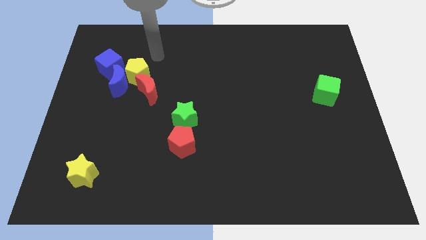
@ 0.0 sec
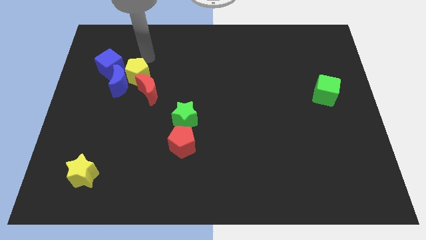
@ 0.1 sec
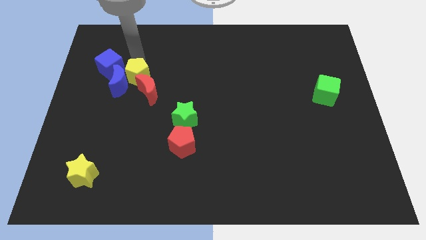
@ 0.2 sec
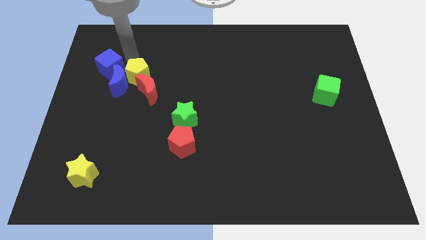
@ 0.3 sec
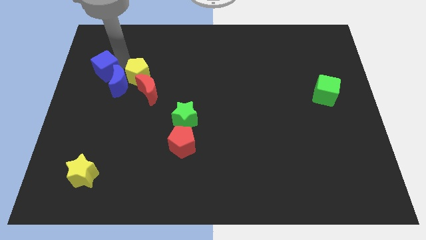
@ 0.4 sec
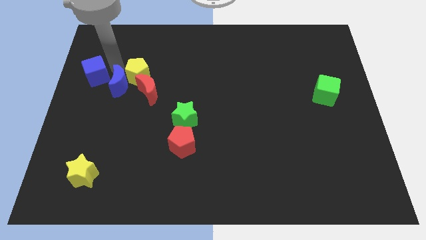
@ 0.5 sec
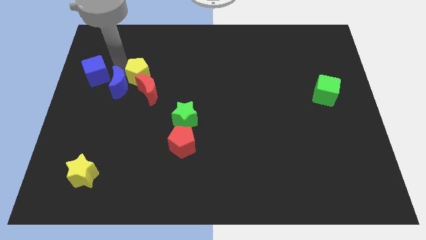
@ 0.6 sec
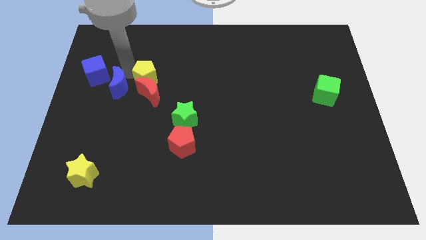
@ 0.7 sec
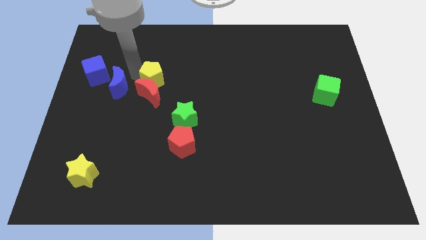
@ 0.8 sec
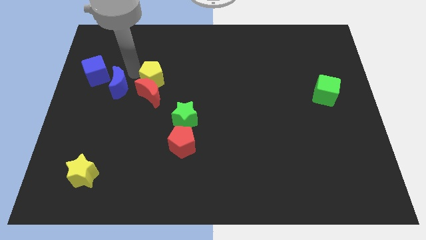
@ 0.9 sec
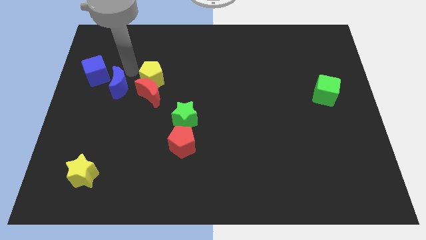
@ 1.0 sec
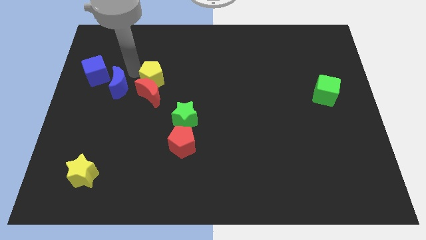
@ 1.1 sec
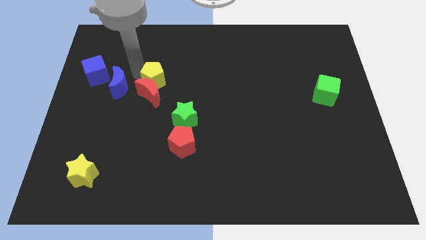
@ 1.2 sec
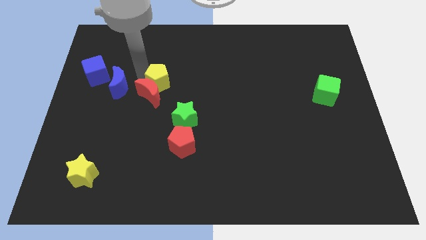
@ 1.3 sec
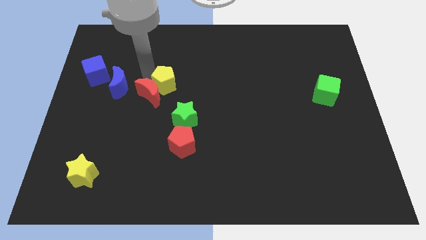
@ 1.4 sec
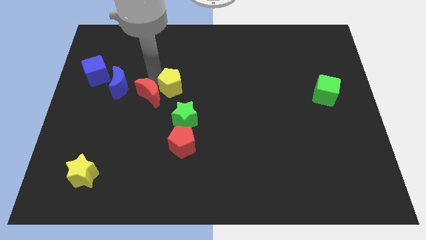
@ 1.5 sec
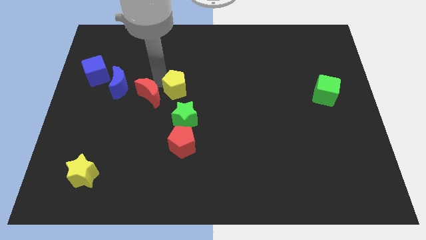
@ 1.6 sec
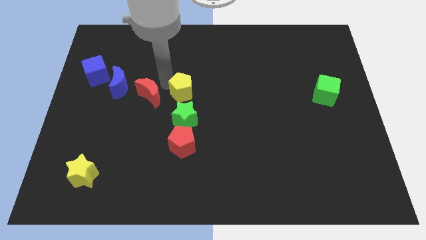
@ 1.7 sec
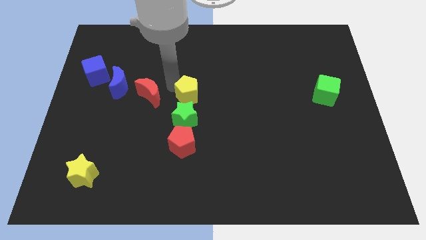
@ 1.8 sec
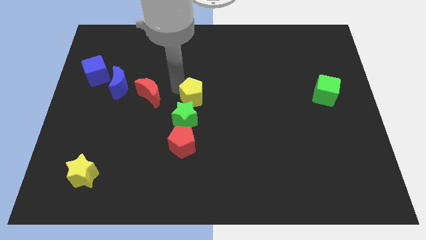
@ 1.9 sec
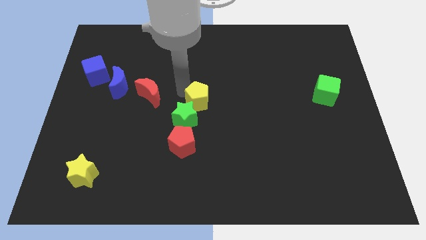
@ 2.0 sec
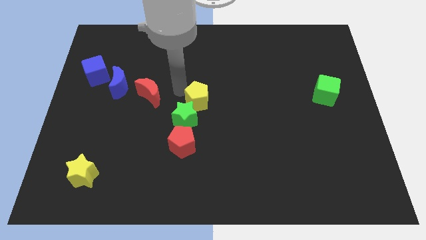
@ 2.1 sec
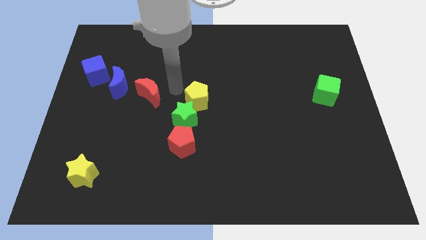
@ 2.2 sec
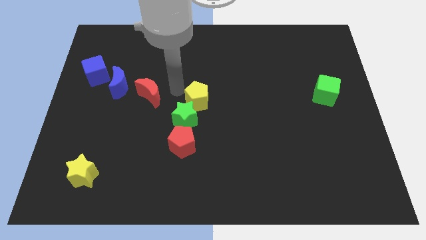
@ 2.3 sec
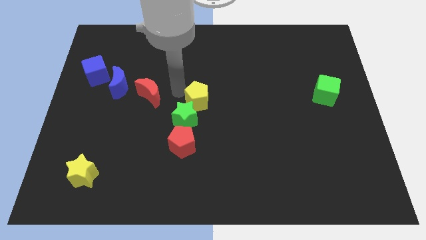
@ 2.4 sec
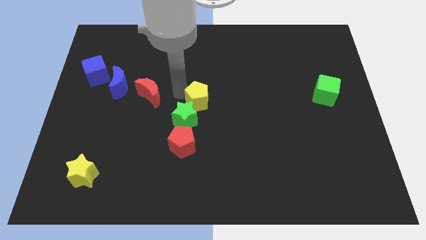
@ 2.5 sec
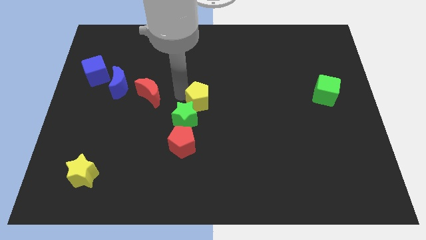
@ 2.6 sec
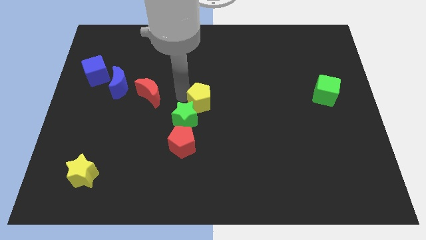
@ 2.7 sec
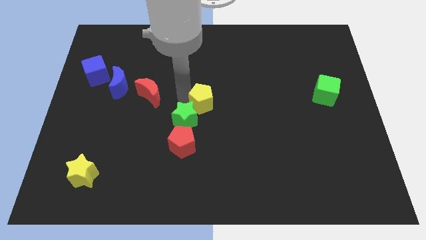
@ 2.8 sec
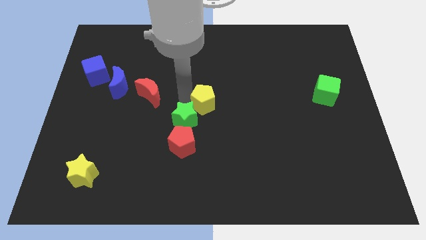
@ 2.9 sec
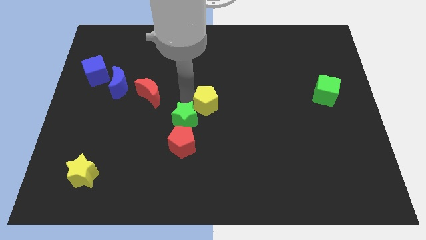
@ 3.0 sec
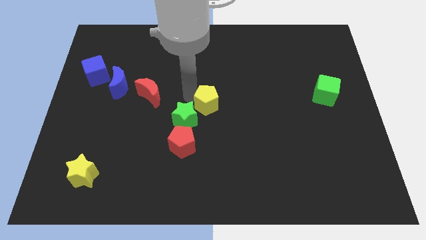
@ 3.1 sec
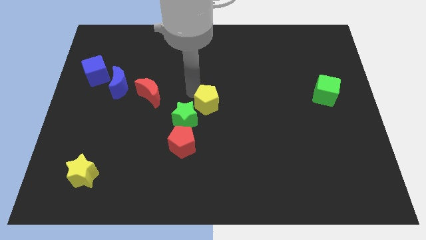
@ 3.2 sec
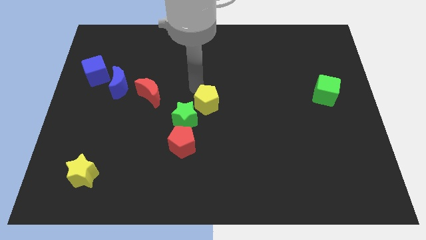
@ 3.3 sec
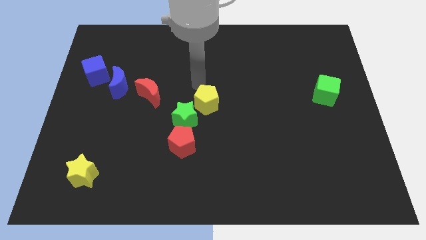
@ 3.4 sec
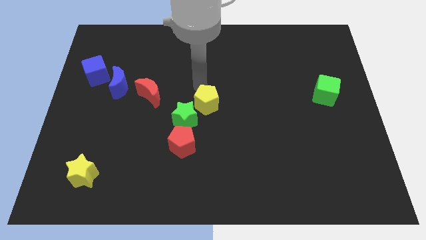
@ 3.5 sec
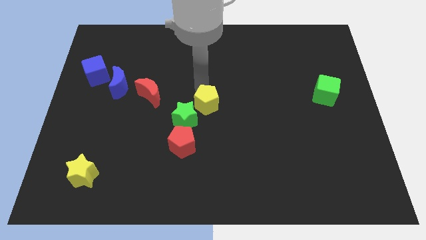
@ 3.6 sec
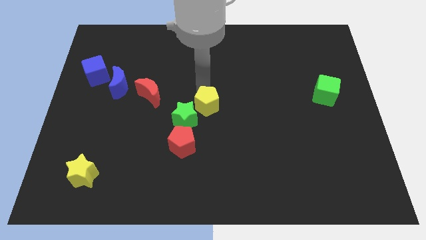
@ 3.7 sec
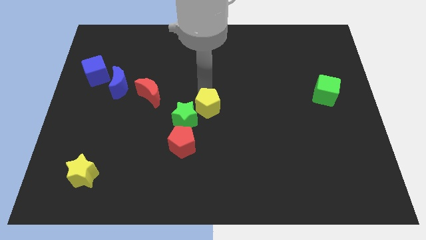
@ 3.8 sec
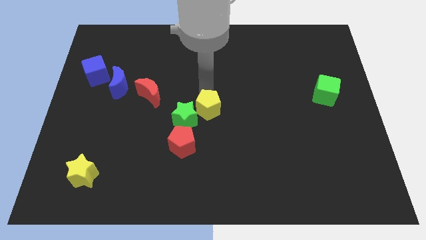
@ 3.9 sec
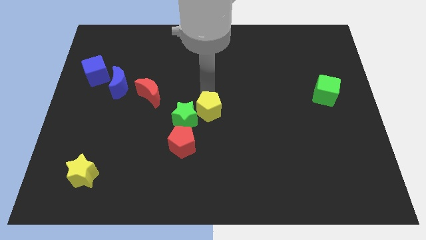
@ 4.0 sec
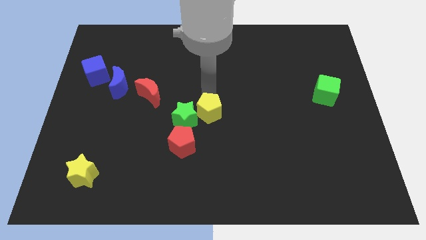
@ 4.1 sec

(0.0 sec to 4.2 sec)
push the yellow pentagon down and to the right diagonally

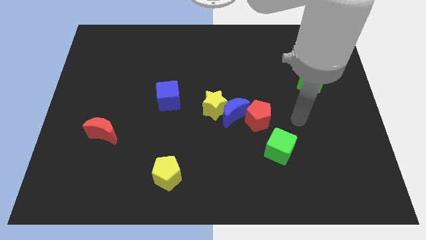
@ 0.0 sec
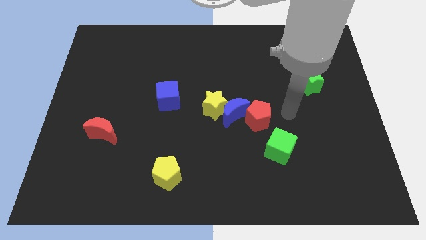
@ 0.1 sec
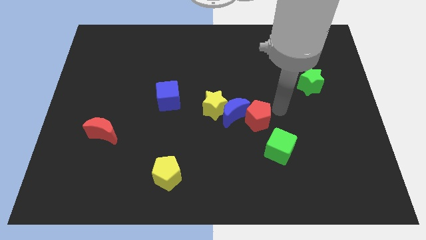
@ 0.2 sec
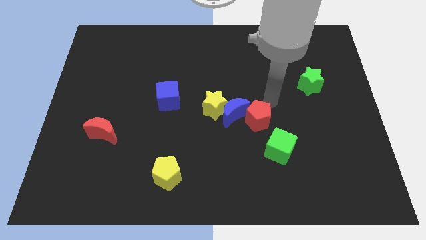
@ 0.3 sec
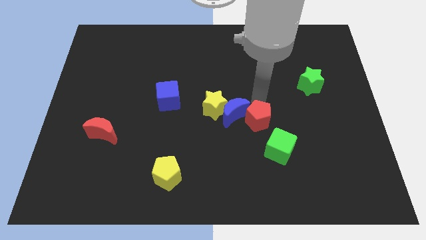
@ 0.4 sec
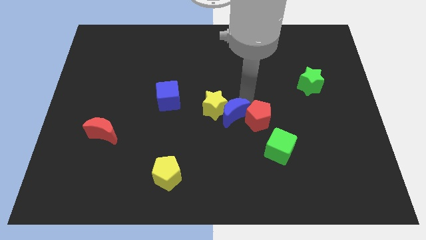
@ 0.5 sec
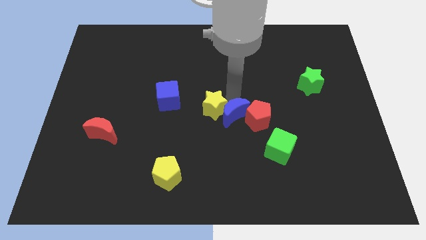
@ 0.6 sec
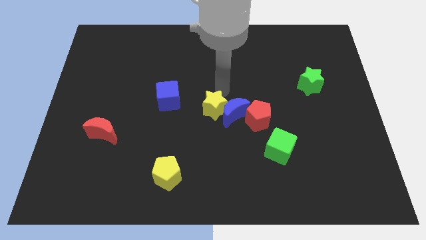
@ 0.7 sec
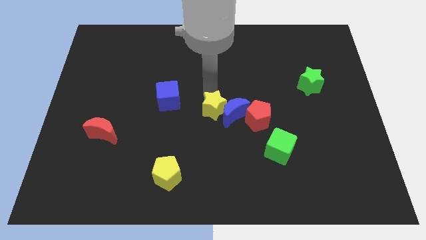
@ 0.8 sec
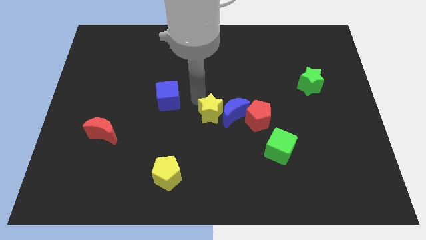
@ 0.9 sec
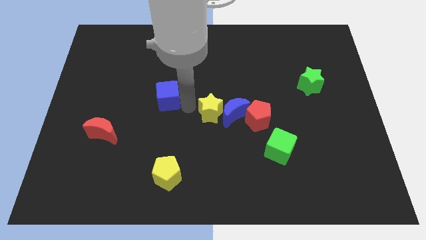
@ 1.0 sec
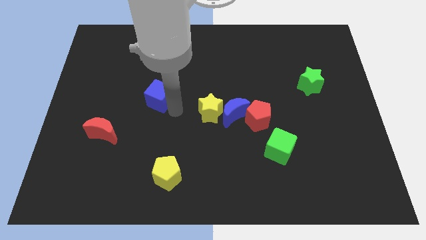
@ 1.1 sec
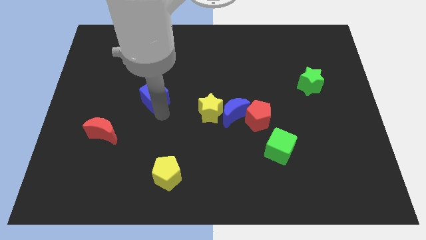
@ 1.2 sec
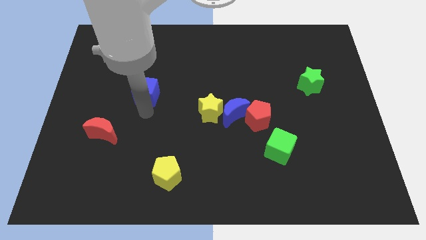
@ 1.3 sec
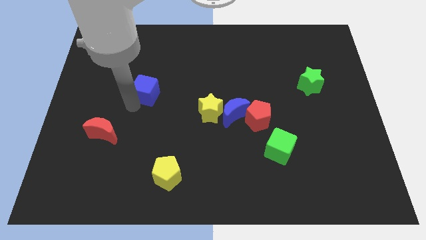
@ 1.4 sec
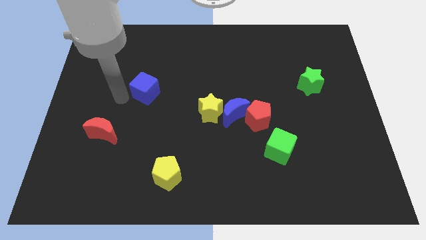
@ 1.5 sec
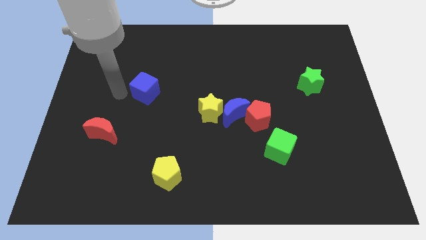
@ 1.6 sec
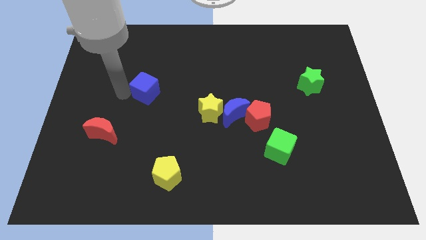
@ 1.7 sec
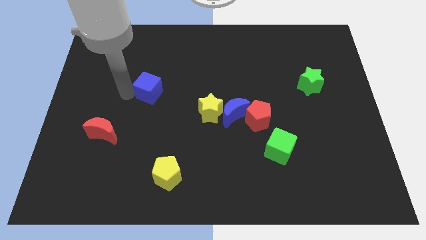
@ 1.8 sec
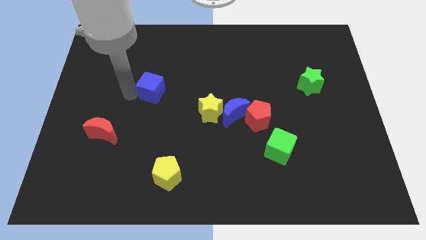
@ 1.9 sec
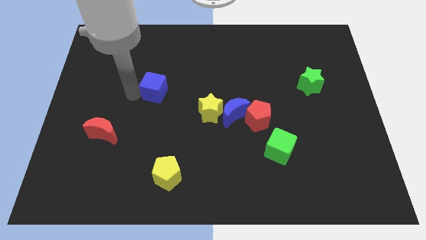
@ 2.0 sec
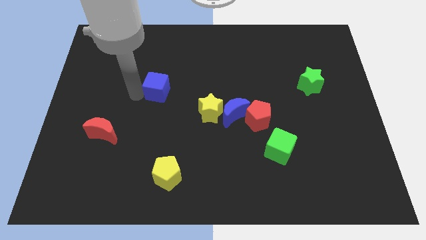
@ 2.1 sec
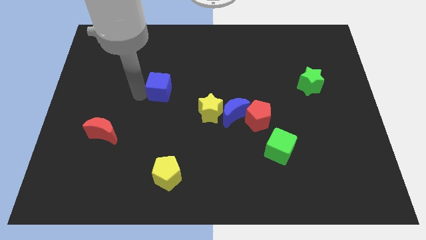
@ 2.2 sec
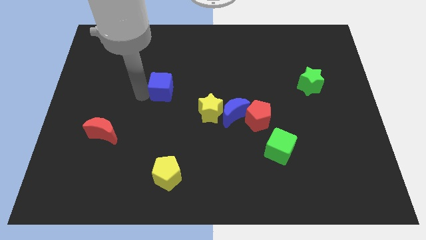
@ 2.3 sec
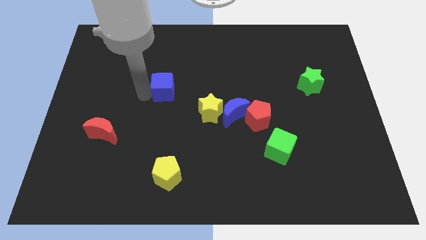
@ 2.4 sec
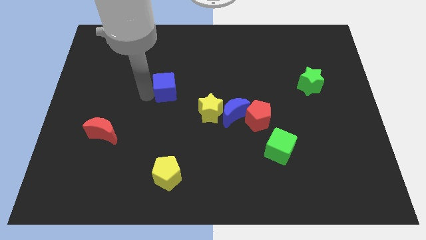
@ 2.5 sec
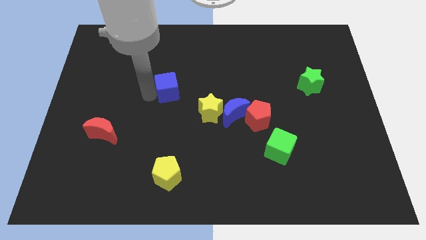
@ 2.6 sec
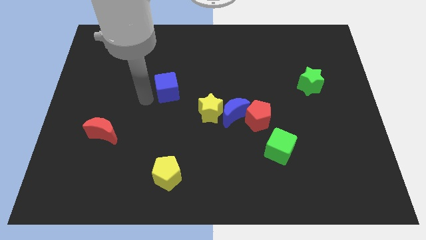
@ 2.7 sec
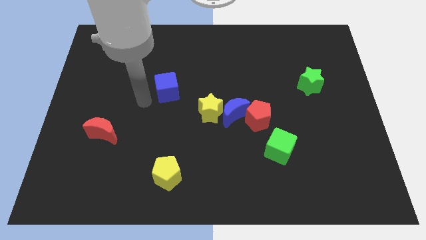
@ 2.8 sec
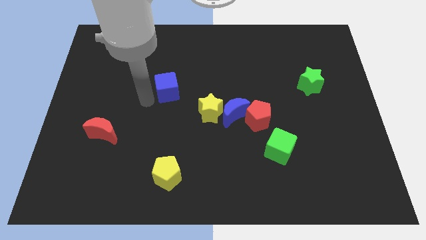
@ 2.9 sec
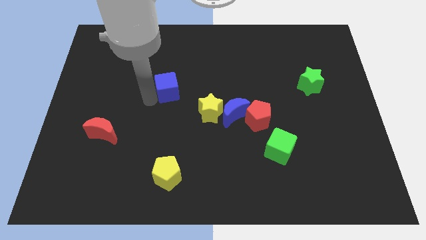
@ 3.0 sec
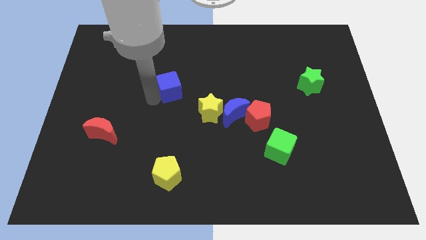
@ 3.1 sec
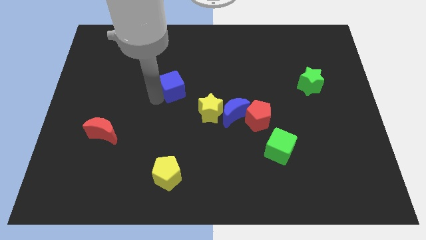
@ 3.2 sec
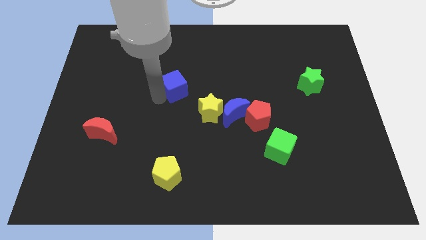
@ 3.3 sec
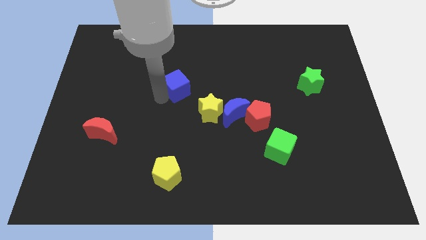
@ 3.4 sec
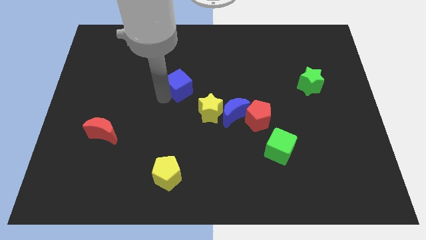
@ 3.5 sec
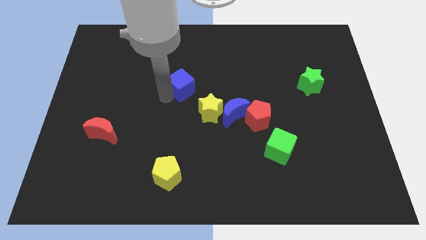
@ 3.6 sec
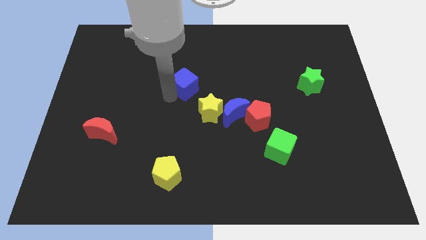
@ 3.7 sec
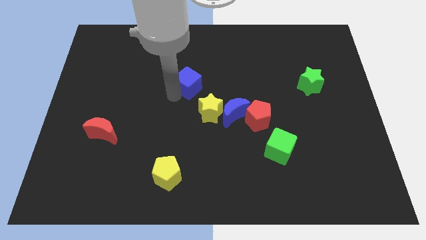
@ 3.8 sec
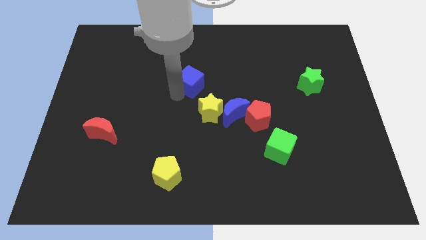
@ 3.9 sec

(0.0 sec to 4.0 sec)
slide the blue cube a little upwards and then to the right
